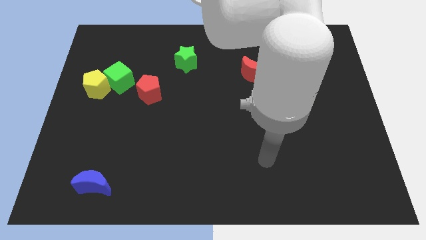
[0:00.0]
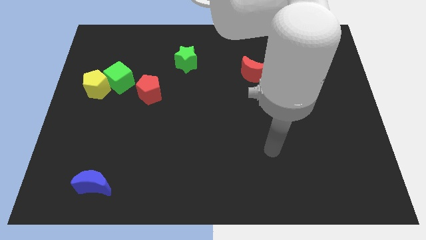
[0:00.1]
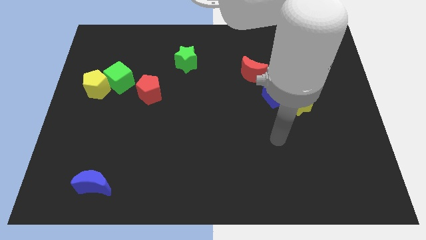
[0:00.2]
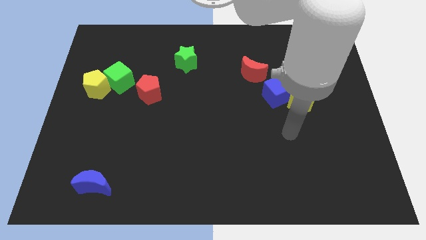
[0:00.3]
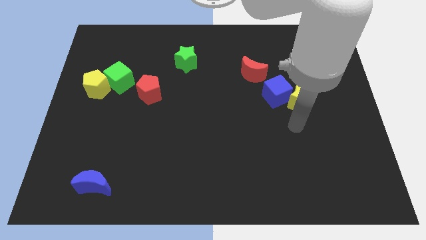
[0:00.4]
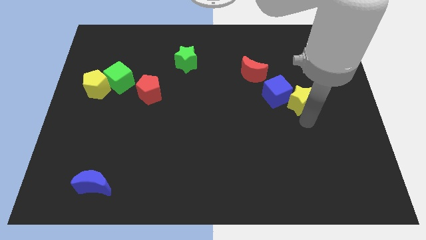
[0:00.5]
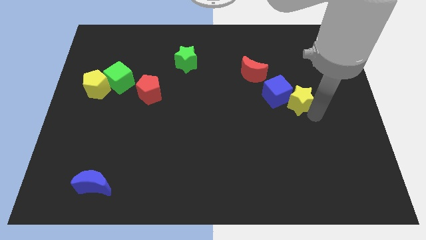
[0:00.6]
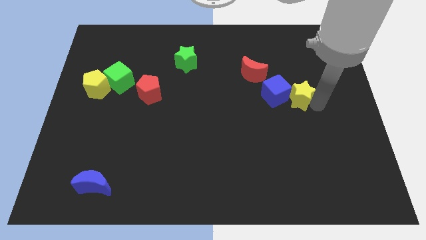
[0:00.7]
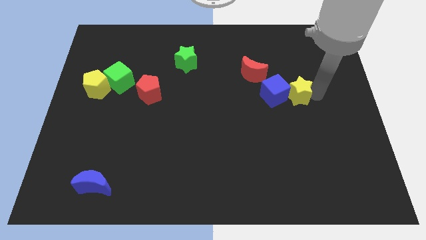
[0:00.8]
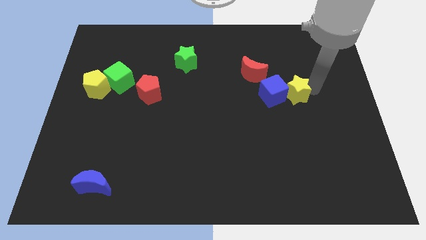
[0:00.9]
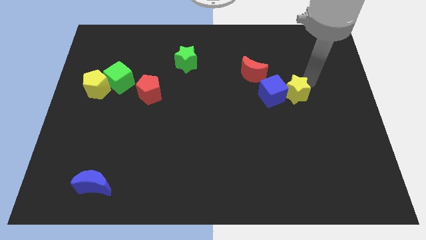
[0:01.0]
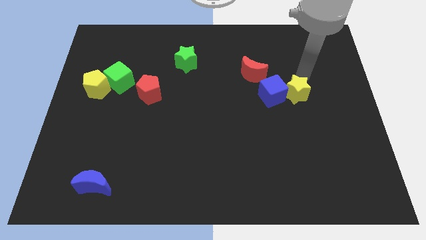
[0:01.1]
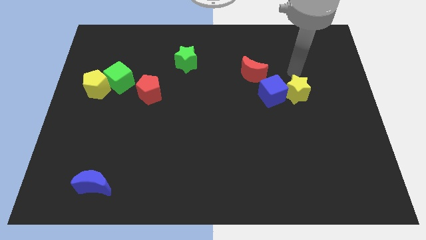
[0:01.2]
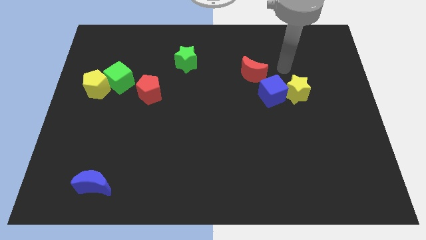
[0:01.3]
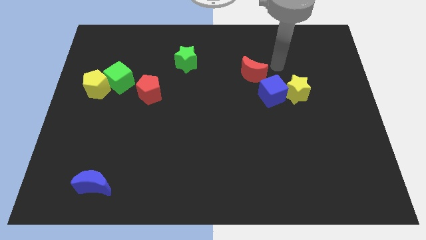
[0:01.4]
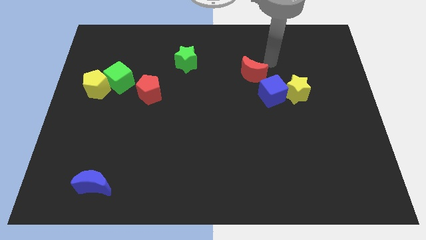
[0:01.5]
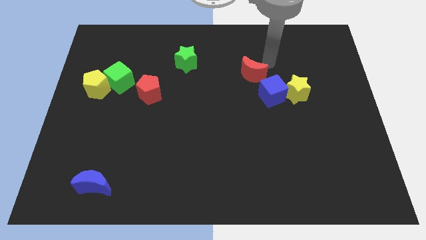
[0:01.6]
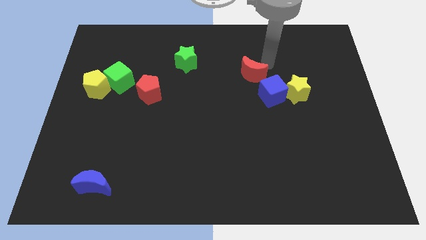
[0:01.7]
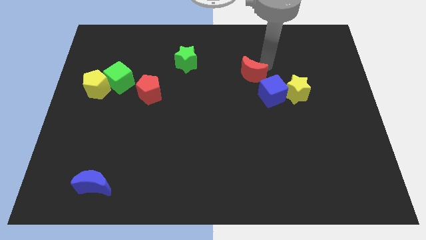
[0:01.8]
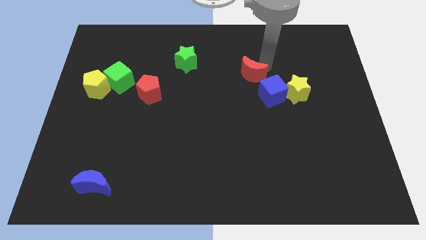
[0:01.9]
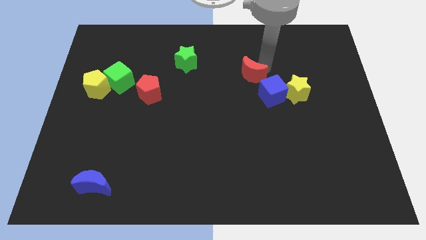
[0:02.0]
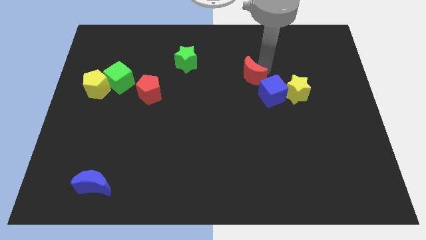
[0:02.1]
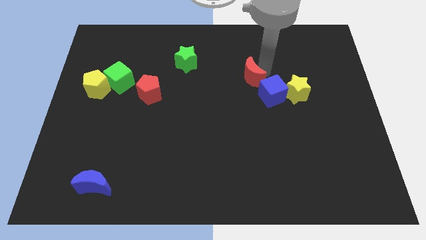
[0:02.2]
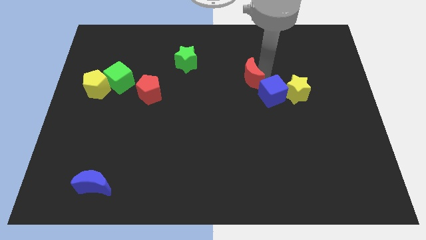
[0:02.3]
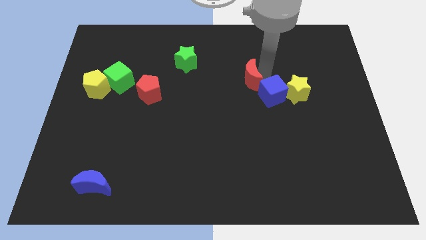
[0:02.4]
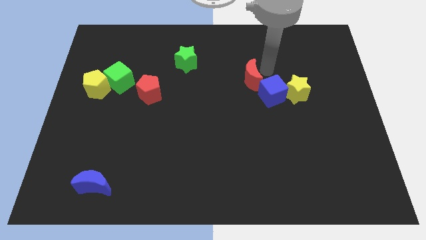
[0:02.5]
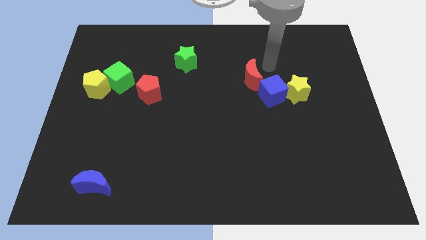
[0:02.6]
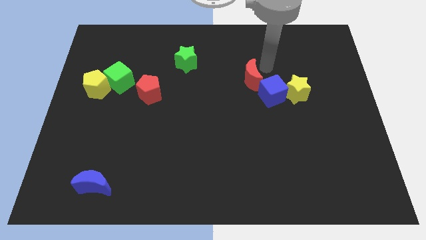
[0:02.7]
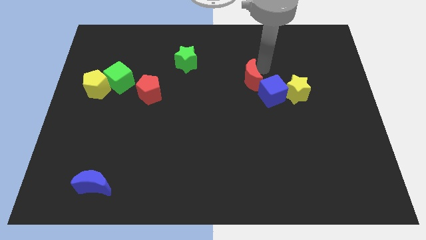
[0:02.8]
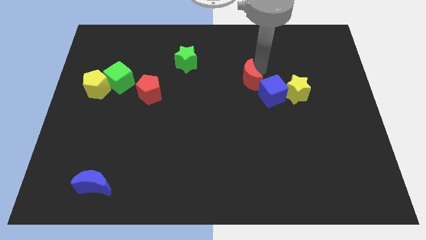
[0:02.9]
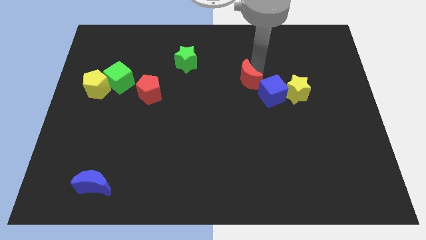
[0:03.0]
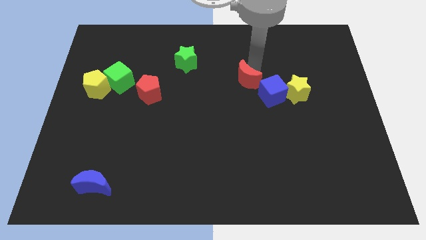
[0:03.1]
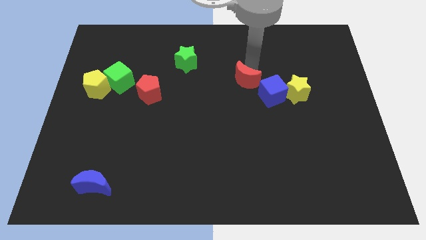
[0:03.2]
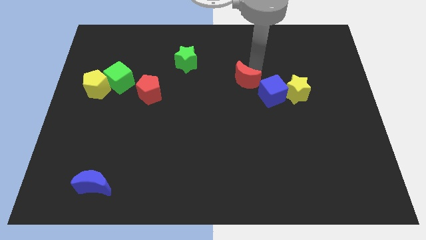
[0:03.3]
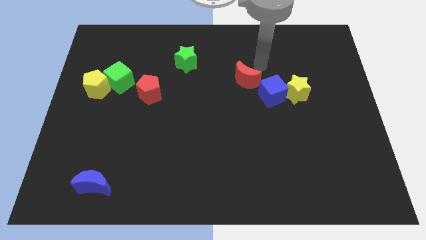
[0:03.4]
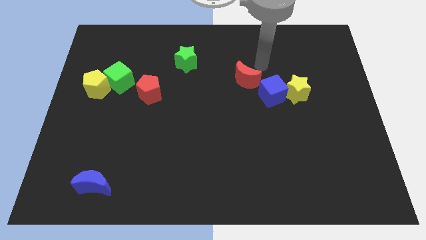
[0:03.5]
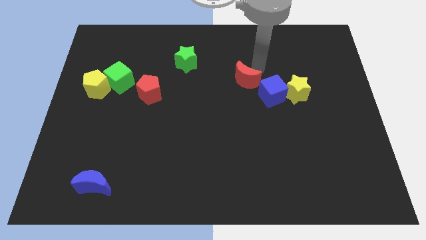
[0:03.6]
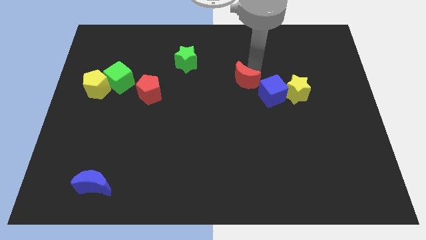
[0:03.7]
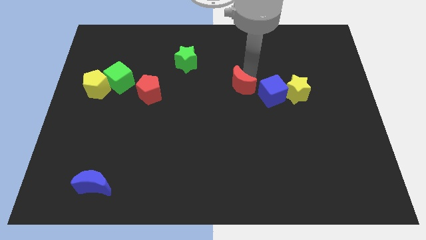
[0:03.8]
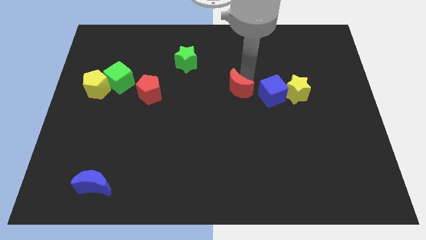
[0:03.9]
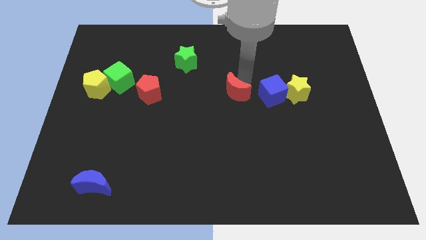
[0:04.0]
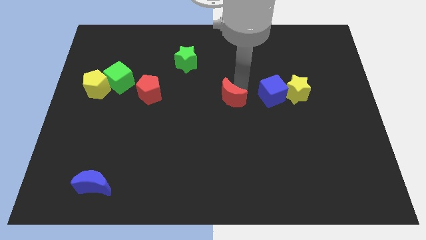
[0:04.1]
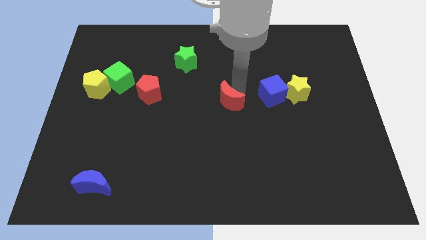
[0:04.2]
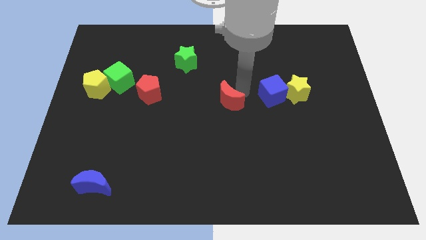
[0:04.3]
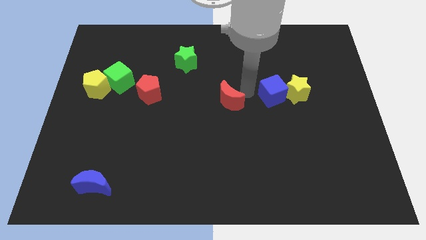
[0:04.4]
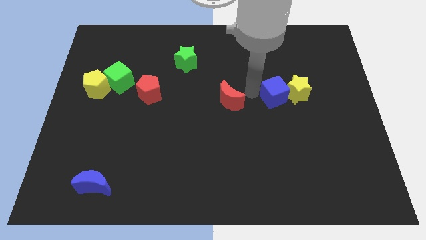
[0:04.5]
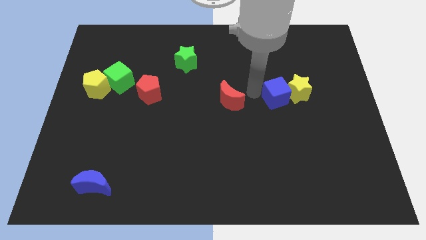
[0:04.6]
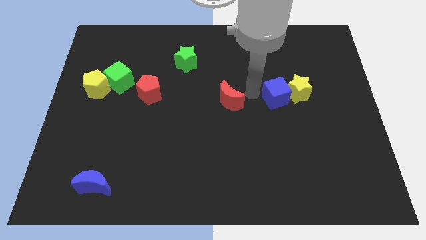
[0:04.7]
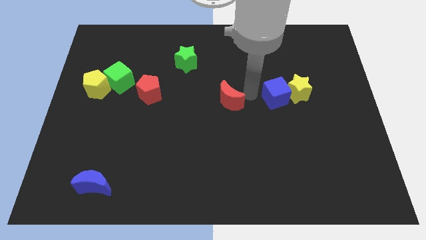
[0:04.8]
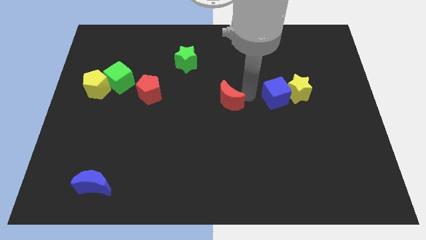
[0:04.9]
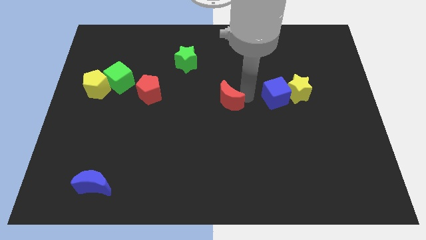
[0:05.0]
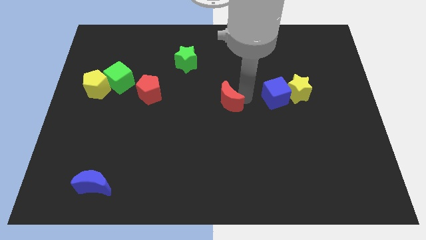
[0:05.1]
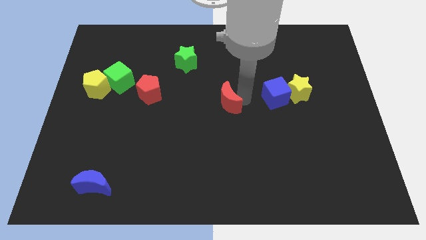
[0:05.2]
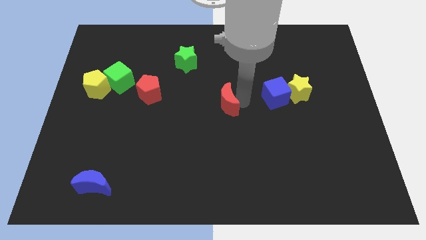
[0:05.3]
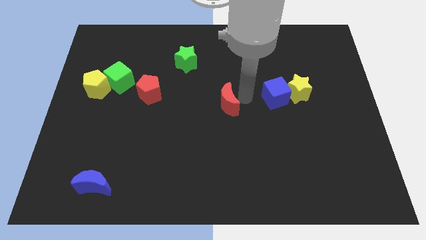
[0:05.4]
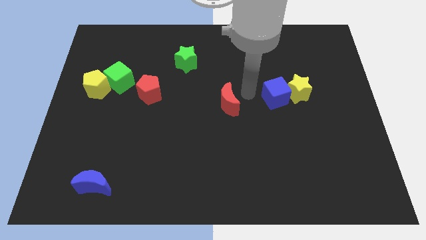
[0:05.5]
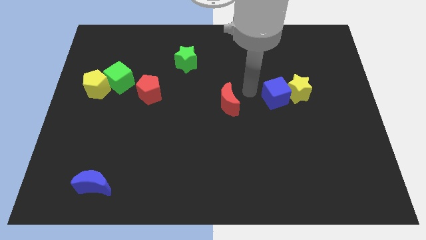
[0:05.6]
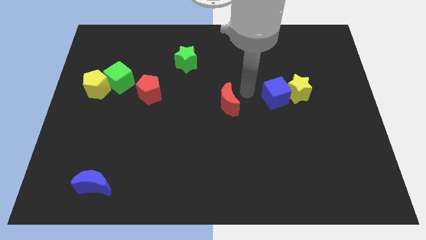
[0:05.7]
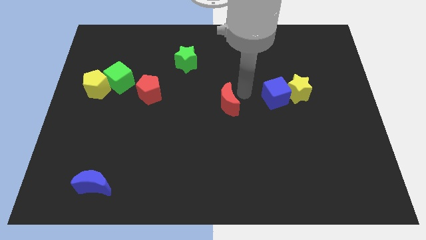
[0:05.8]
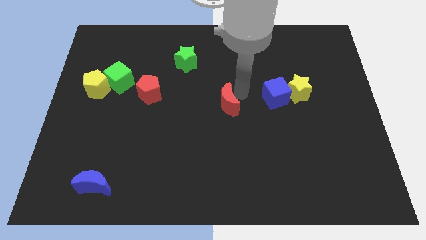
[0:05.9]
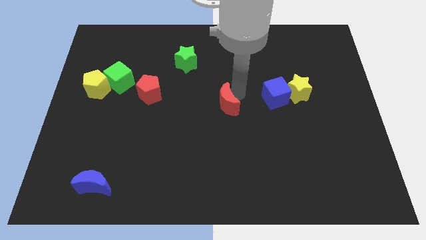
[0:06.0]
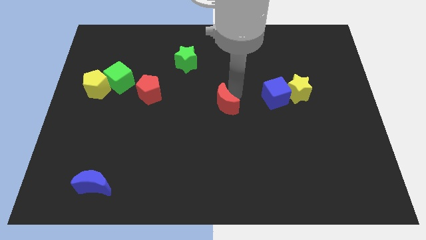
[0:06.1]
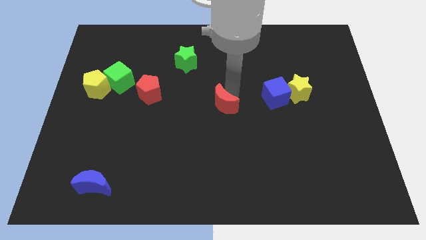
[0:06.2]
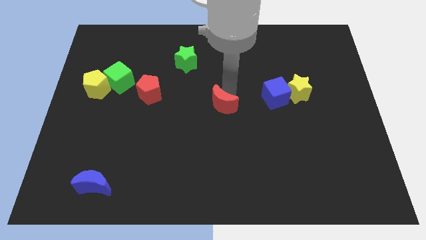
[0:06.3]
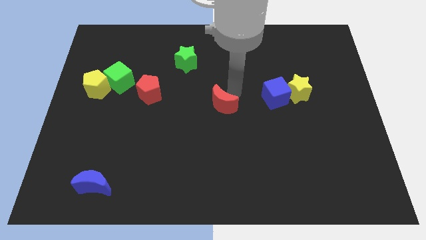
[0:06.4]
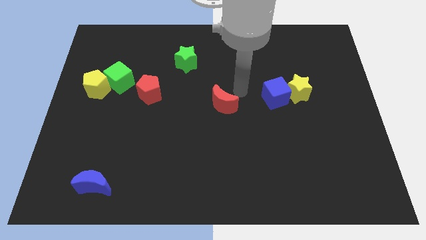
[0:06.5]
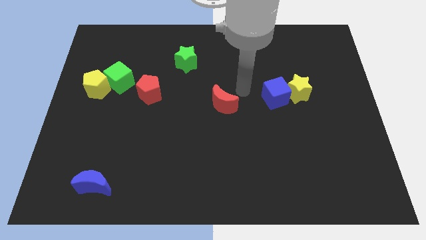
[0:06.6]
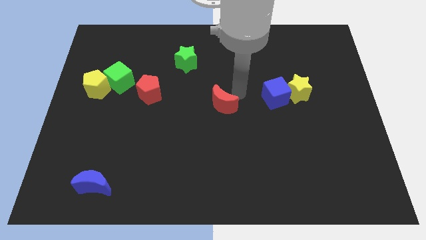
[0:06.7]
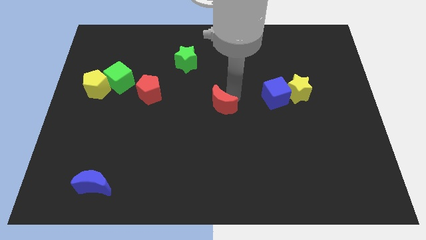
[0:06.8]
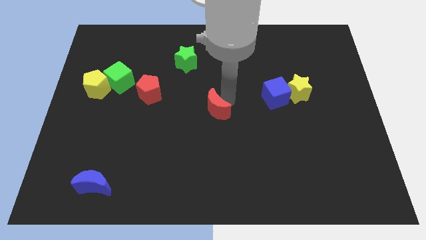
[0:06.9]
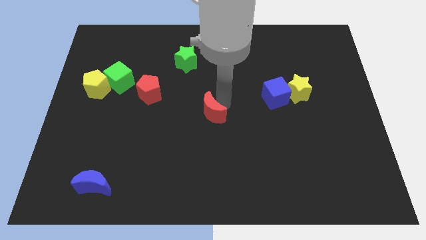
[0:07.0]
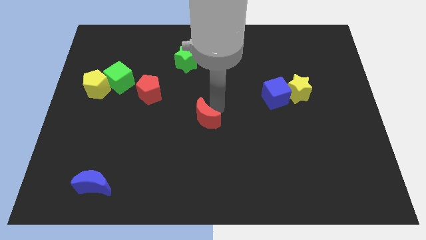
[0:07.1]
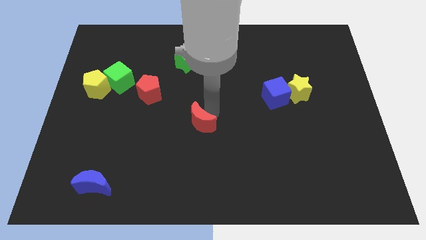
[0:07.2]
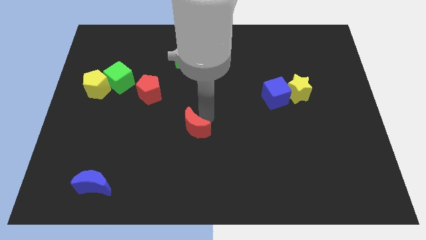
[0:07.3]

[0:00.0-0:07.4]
slide the red moon diagonally down and to the left
